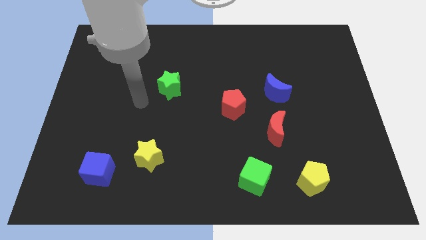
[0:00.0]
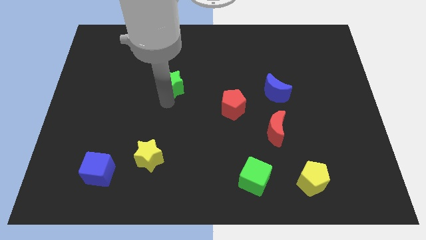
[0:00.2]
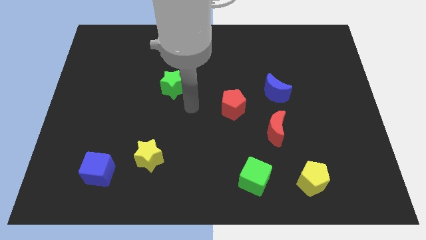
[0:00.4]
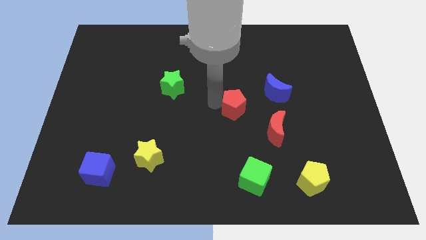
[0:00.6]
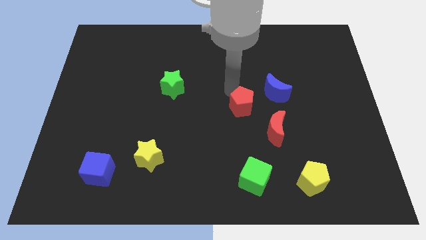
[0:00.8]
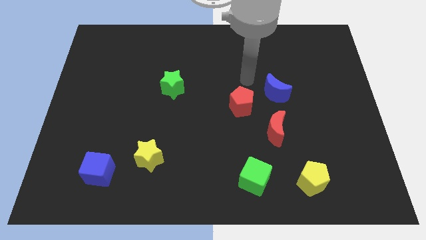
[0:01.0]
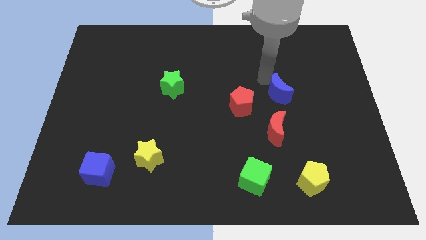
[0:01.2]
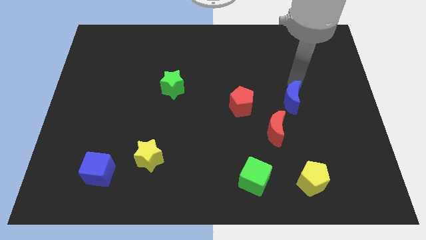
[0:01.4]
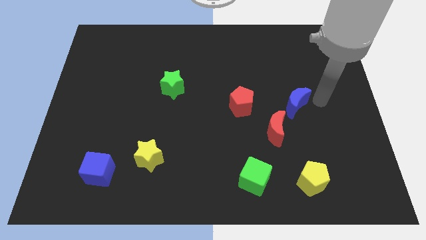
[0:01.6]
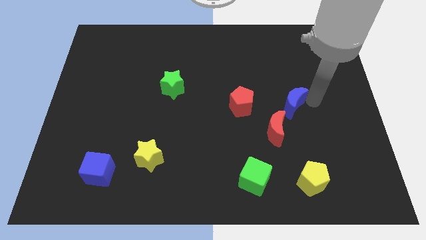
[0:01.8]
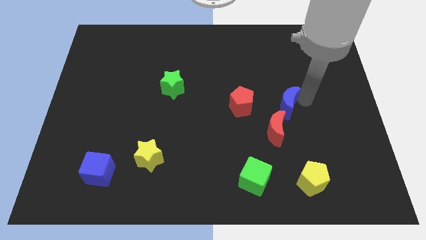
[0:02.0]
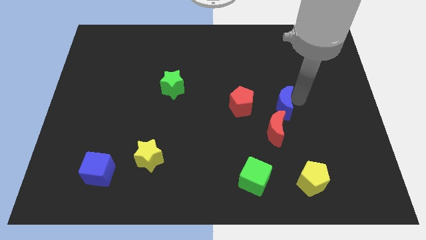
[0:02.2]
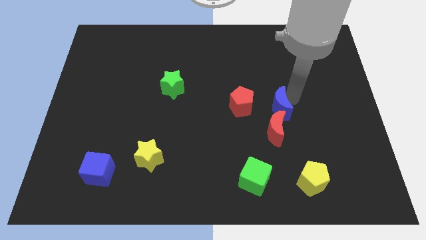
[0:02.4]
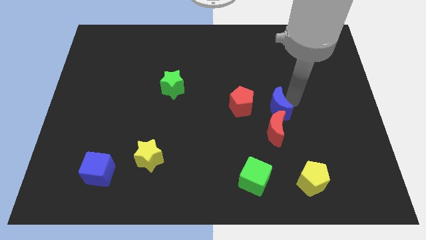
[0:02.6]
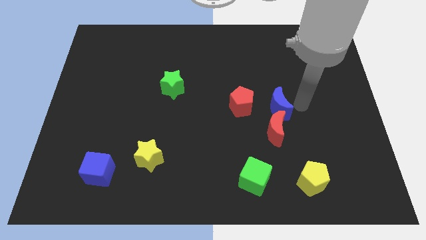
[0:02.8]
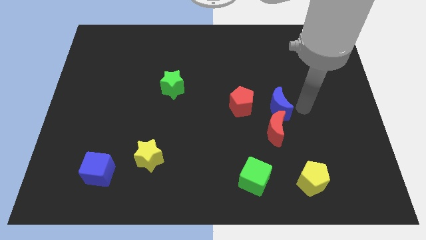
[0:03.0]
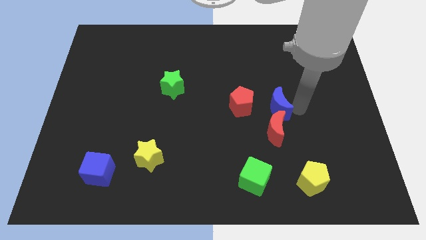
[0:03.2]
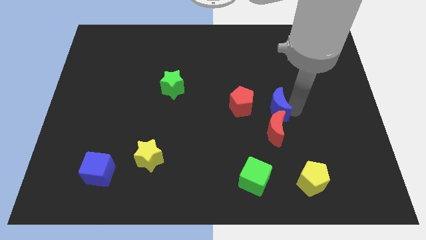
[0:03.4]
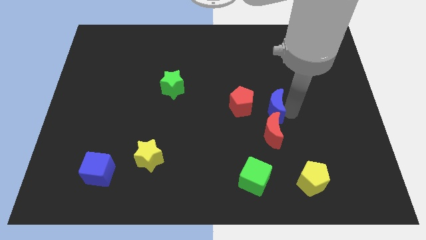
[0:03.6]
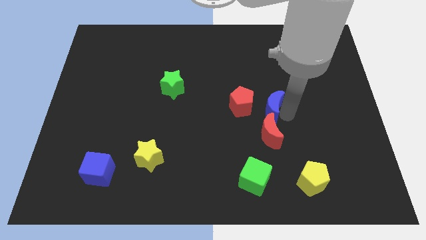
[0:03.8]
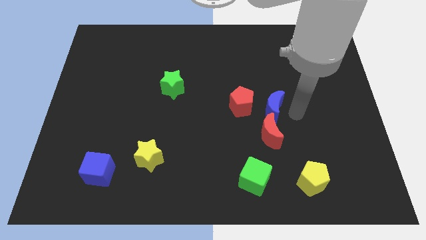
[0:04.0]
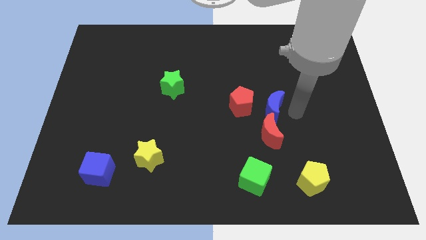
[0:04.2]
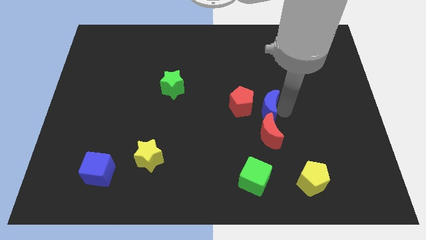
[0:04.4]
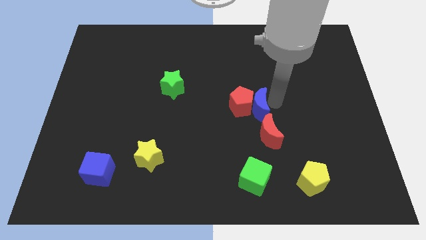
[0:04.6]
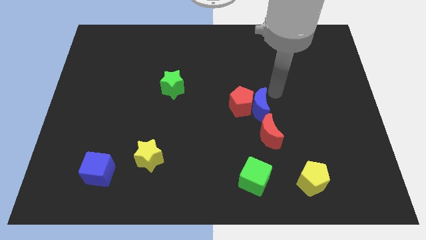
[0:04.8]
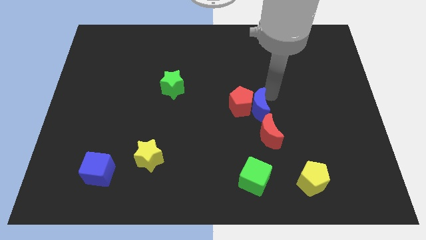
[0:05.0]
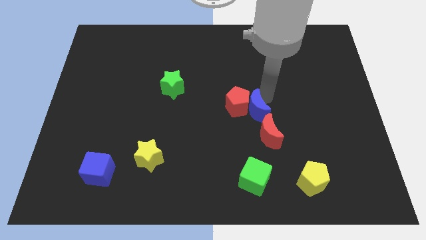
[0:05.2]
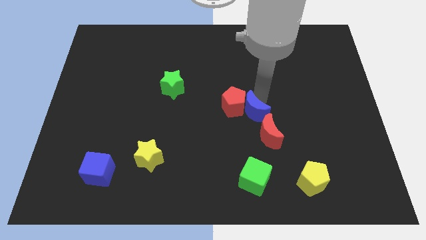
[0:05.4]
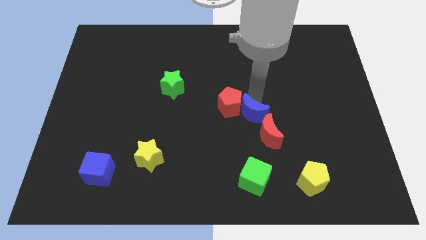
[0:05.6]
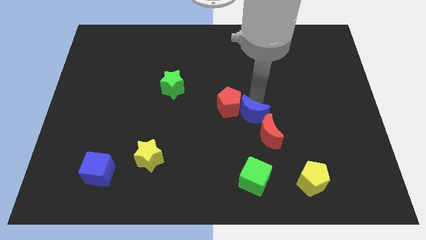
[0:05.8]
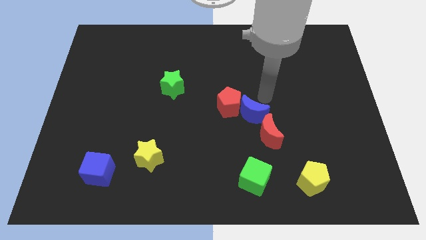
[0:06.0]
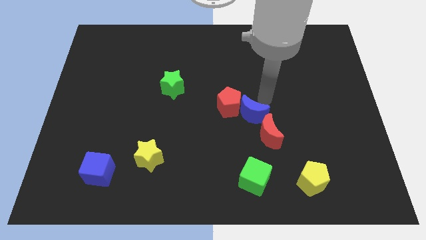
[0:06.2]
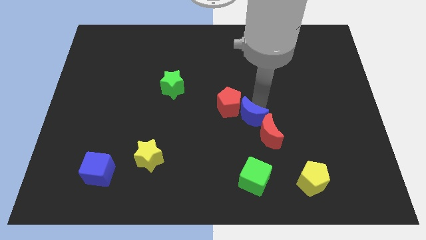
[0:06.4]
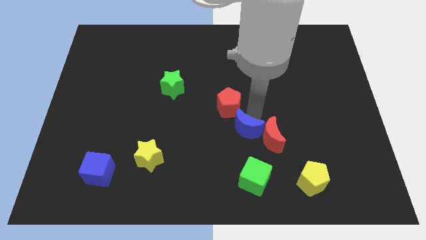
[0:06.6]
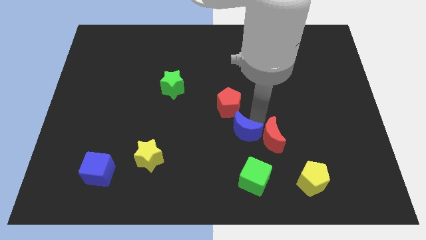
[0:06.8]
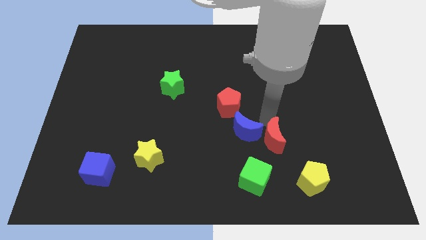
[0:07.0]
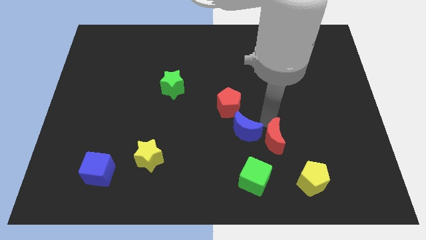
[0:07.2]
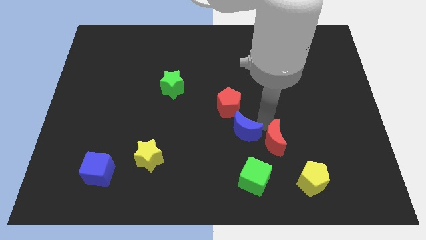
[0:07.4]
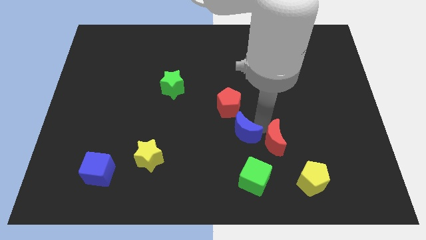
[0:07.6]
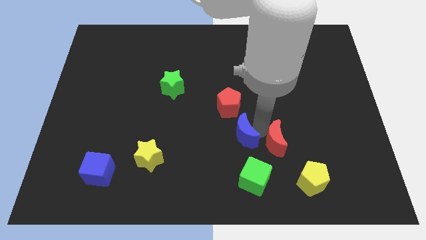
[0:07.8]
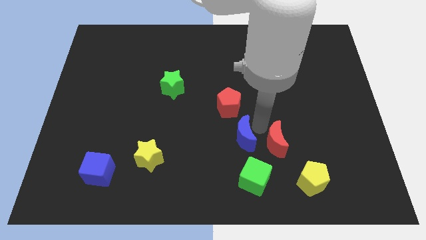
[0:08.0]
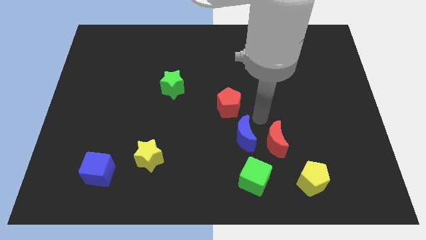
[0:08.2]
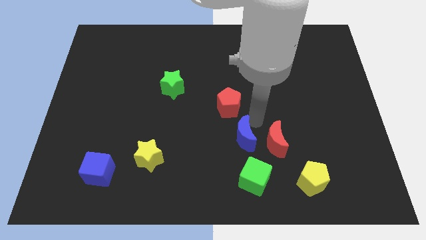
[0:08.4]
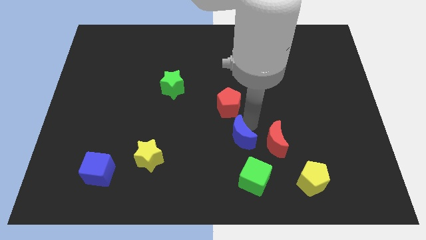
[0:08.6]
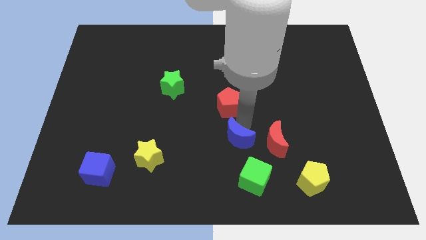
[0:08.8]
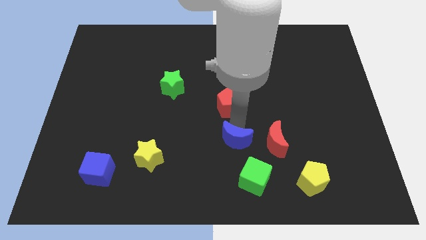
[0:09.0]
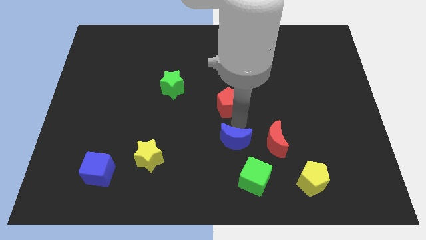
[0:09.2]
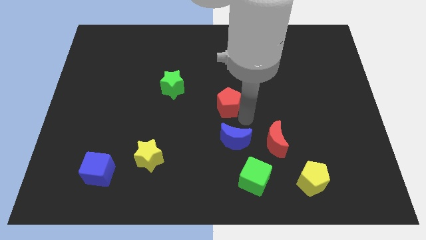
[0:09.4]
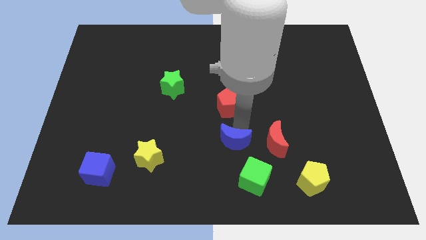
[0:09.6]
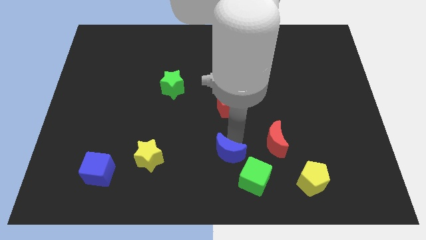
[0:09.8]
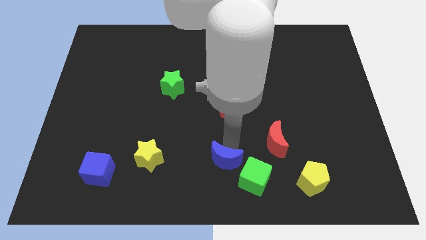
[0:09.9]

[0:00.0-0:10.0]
slide the blue moon to the bottom side

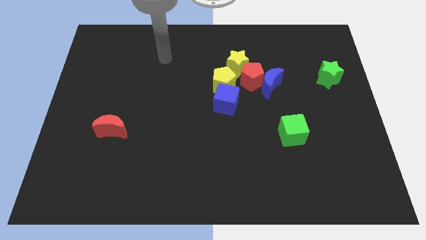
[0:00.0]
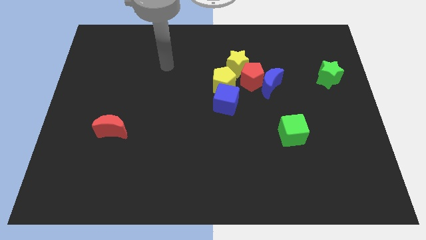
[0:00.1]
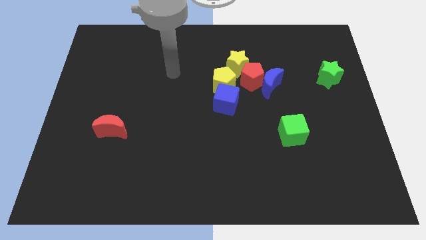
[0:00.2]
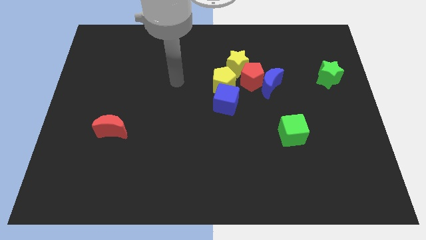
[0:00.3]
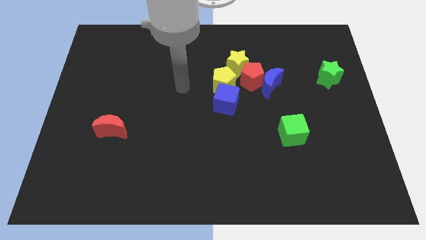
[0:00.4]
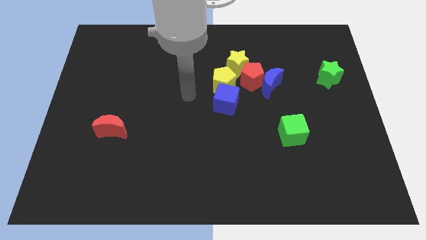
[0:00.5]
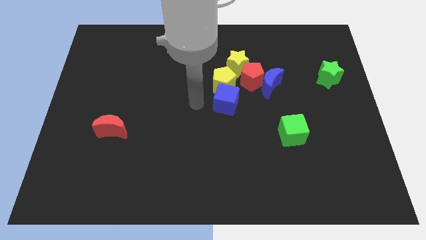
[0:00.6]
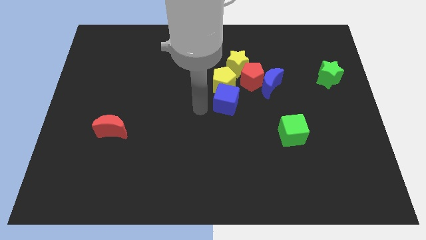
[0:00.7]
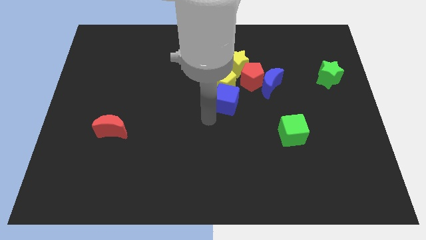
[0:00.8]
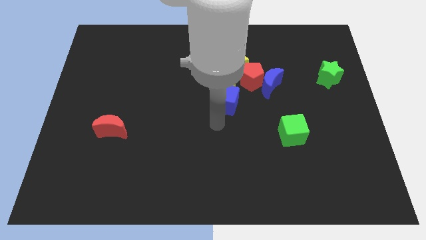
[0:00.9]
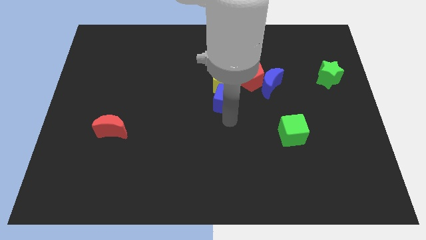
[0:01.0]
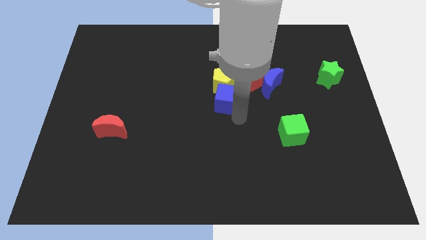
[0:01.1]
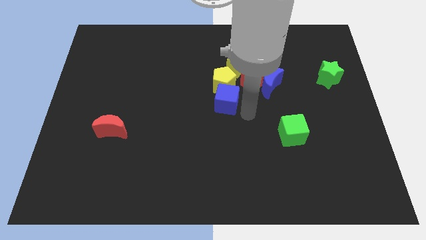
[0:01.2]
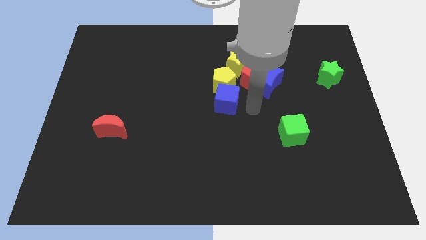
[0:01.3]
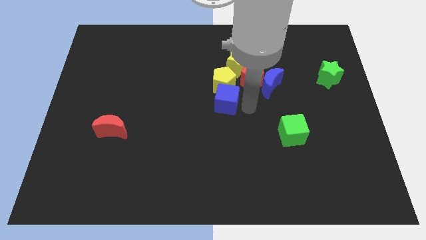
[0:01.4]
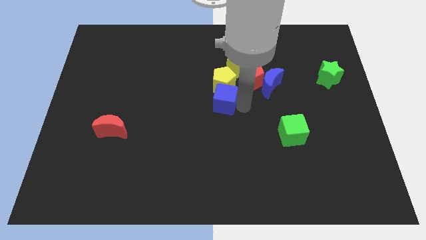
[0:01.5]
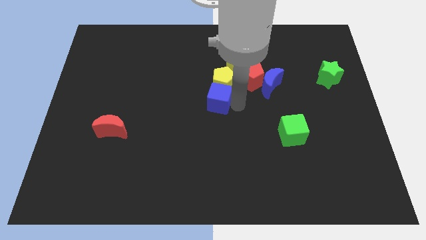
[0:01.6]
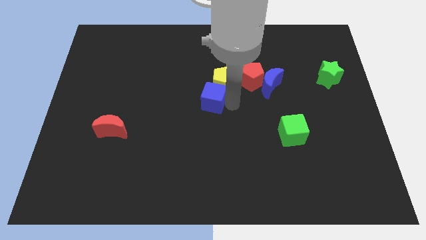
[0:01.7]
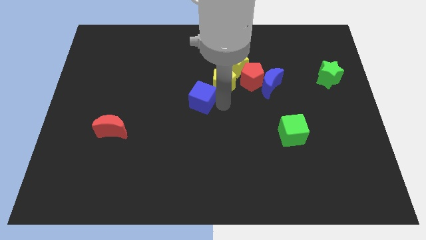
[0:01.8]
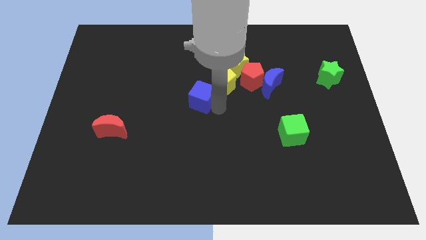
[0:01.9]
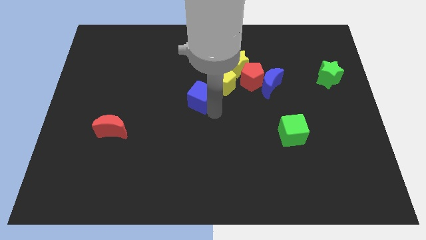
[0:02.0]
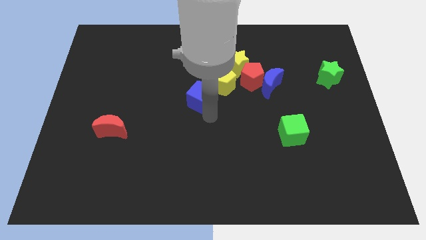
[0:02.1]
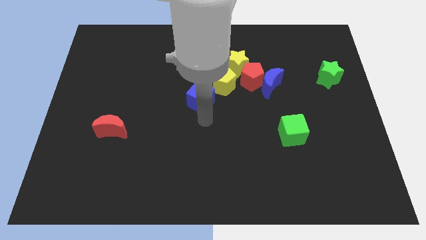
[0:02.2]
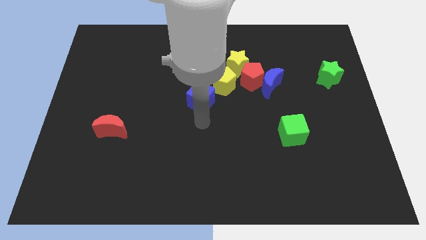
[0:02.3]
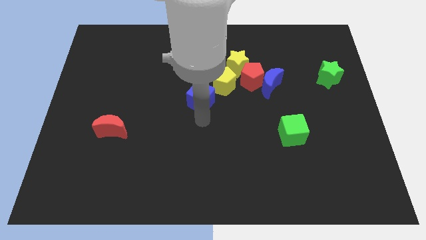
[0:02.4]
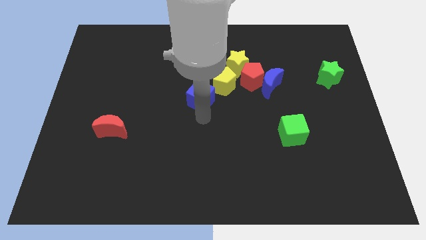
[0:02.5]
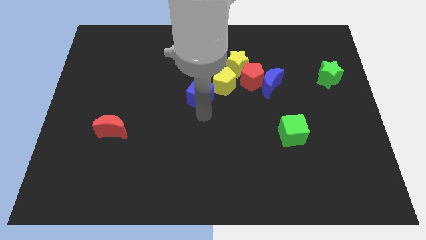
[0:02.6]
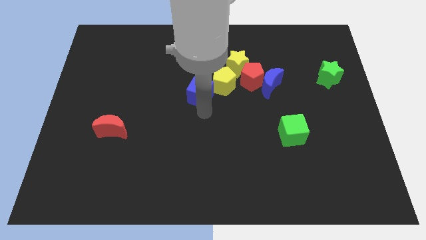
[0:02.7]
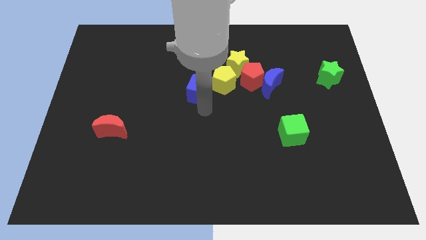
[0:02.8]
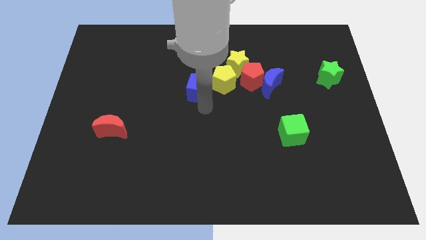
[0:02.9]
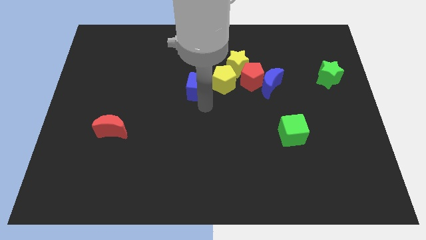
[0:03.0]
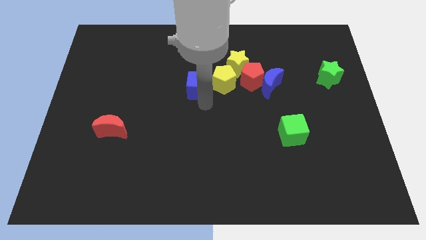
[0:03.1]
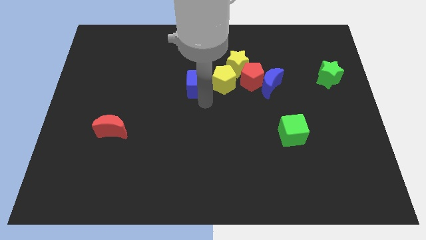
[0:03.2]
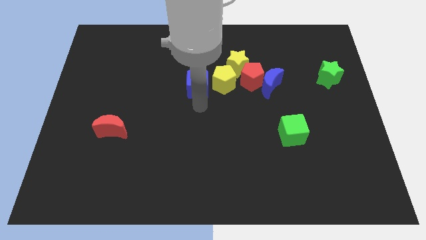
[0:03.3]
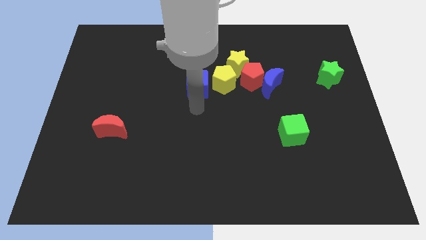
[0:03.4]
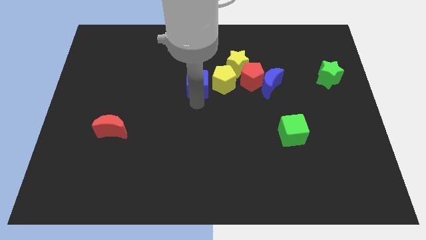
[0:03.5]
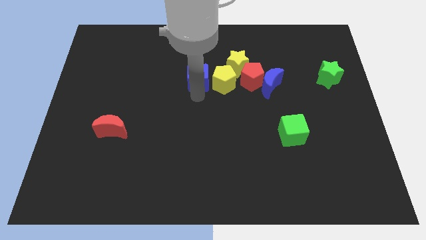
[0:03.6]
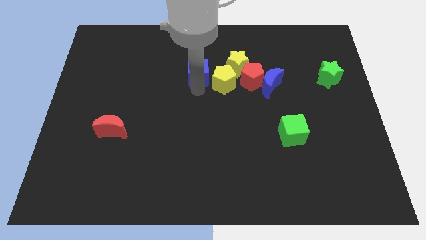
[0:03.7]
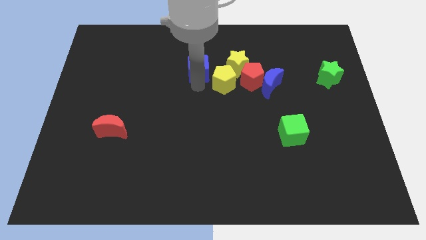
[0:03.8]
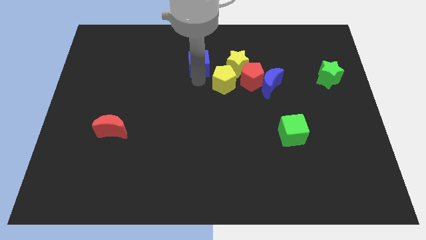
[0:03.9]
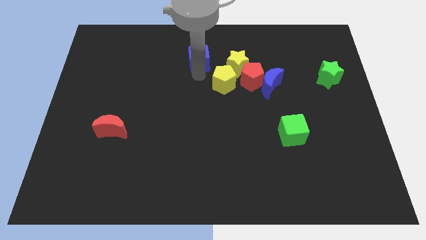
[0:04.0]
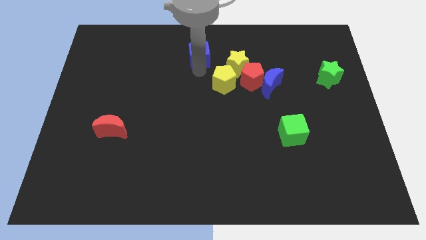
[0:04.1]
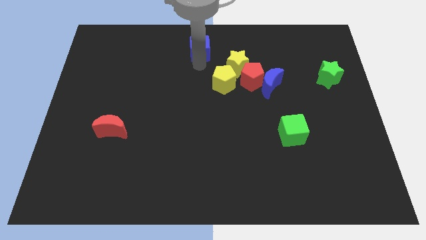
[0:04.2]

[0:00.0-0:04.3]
slide the blue cube to the top
